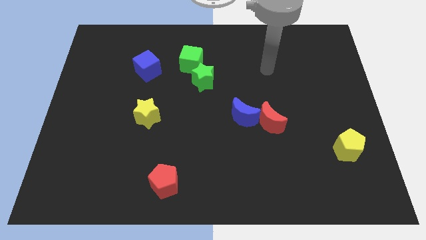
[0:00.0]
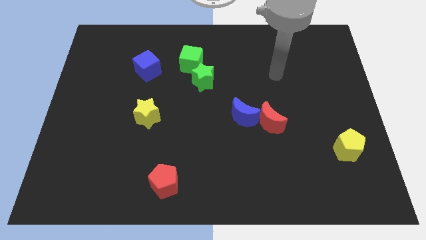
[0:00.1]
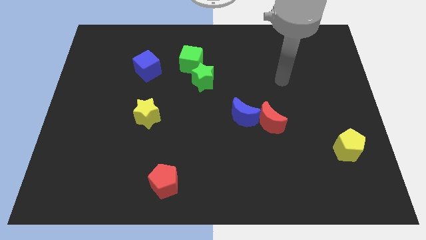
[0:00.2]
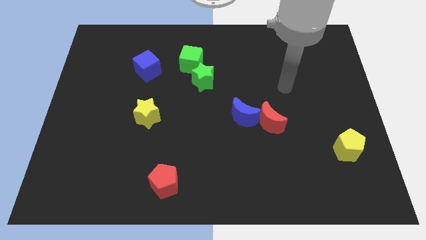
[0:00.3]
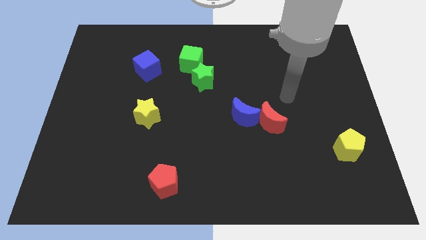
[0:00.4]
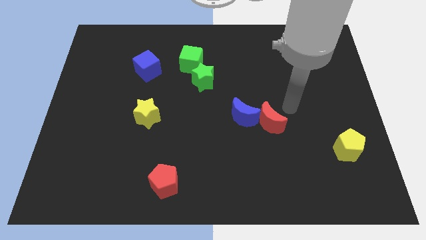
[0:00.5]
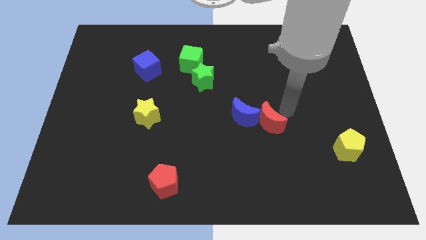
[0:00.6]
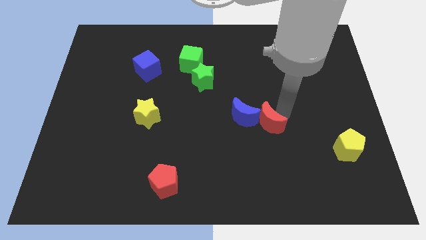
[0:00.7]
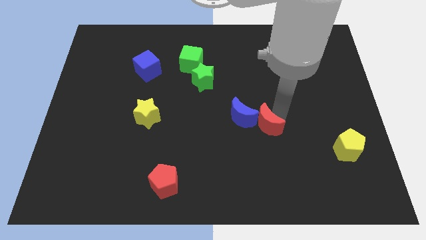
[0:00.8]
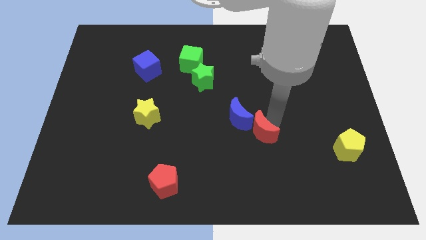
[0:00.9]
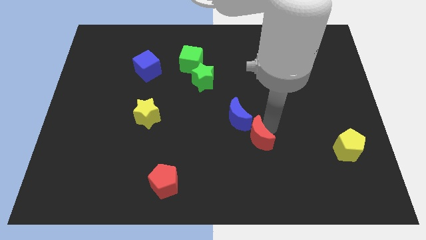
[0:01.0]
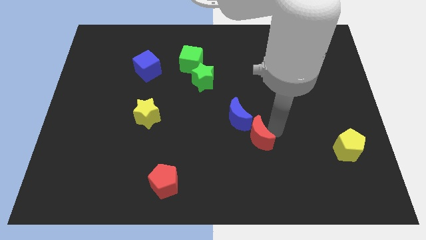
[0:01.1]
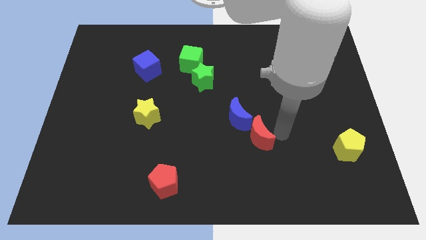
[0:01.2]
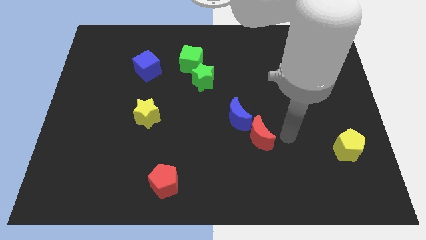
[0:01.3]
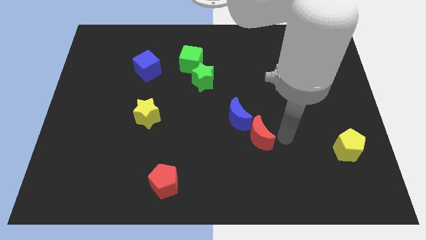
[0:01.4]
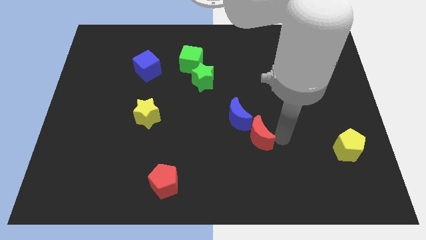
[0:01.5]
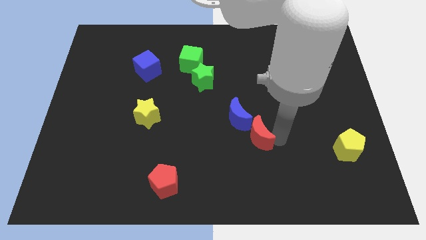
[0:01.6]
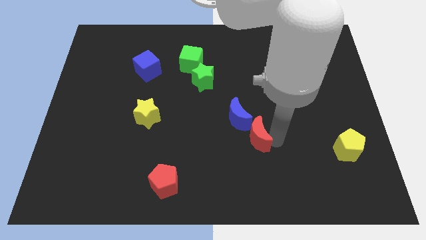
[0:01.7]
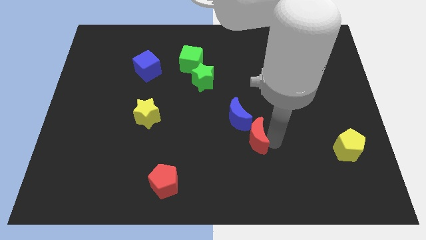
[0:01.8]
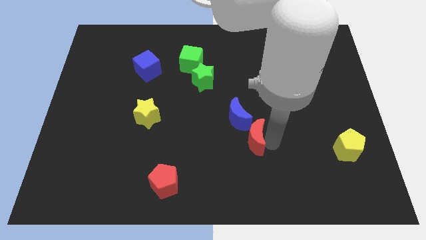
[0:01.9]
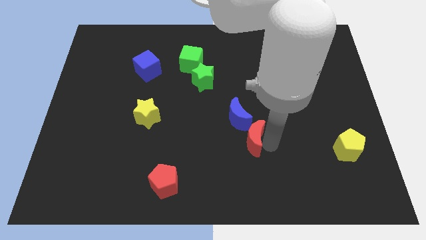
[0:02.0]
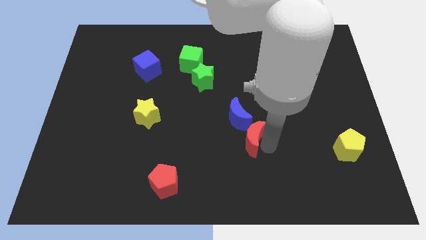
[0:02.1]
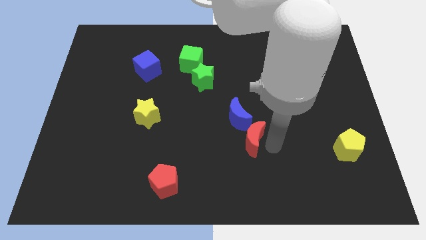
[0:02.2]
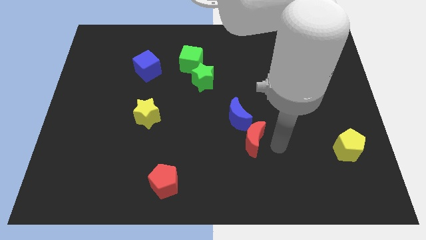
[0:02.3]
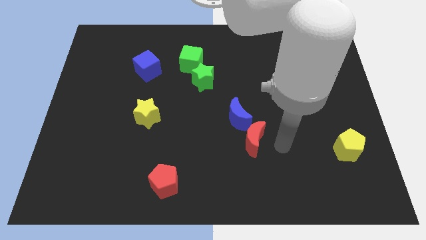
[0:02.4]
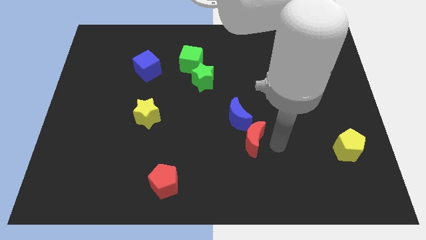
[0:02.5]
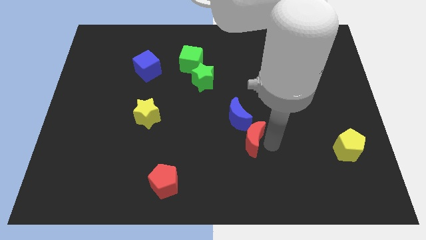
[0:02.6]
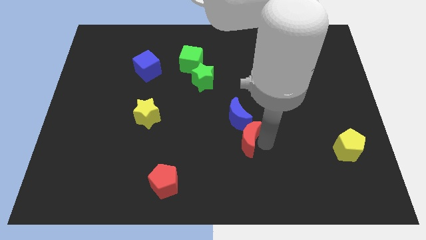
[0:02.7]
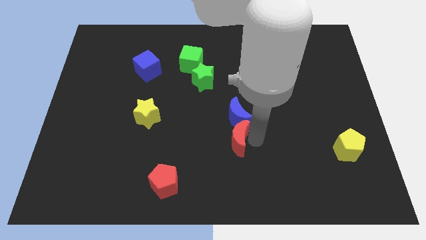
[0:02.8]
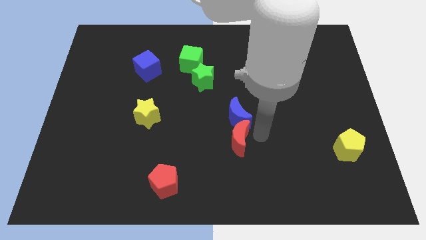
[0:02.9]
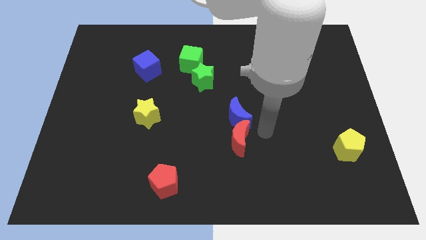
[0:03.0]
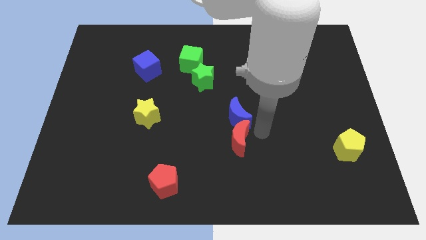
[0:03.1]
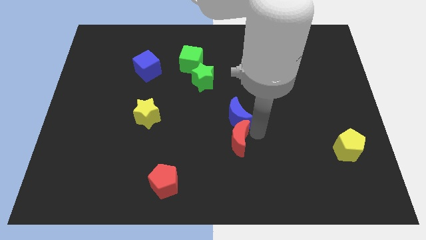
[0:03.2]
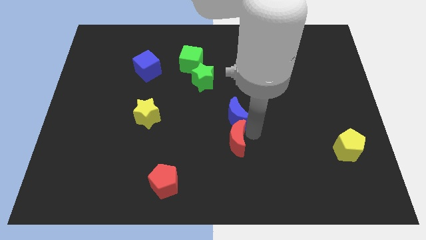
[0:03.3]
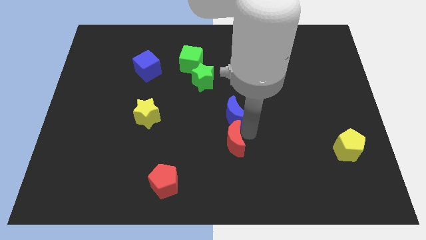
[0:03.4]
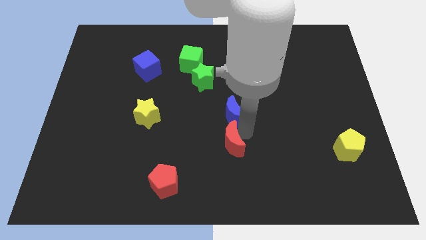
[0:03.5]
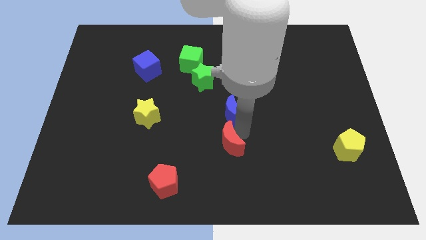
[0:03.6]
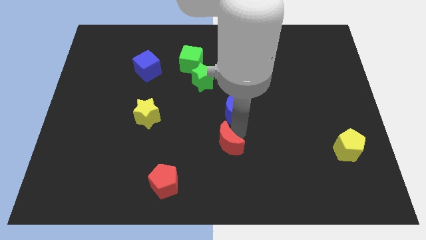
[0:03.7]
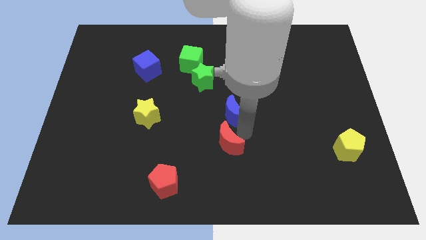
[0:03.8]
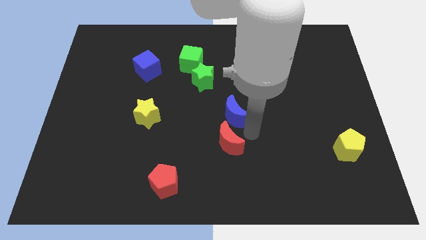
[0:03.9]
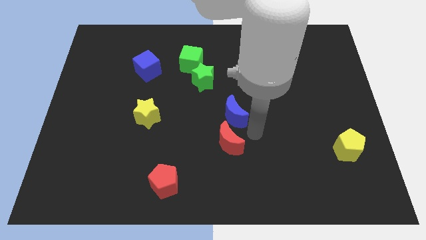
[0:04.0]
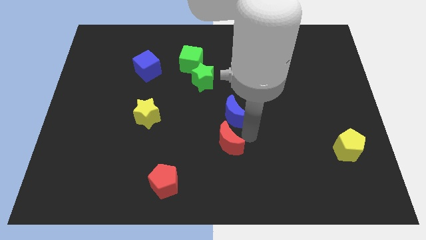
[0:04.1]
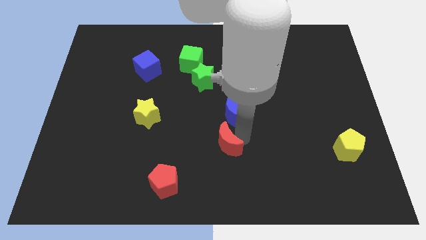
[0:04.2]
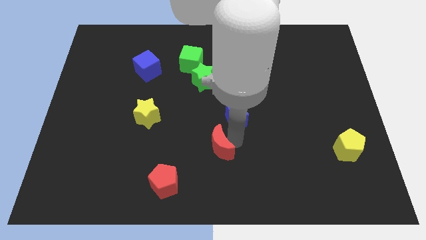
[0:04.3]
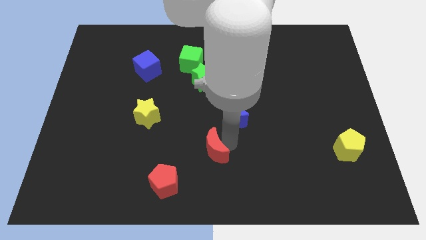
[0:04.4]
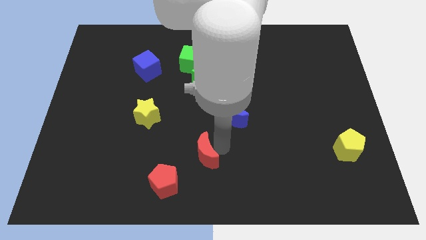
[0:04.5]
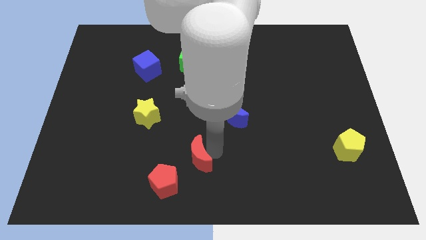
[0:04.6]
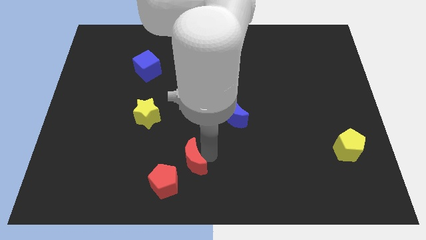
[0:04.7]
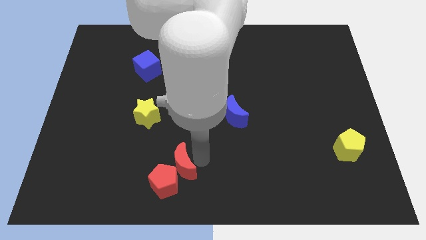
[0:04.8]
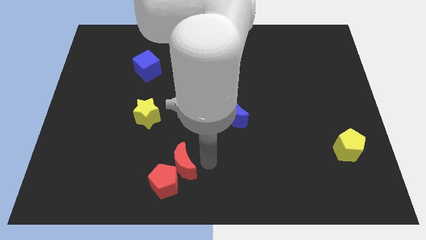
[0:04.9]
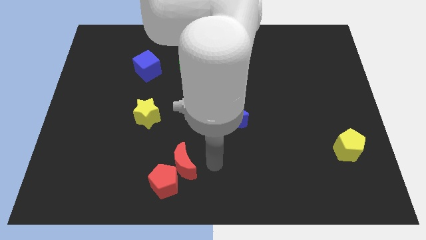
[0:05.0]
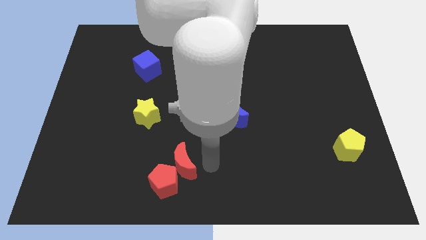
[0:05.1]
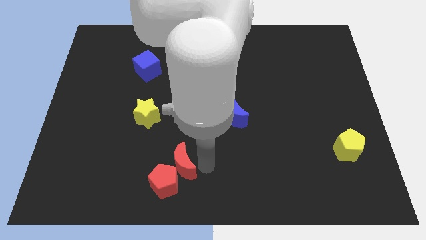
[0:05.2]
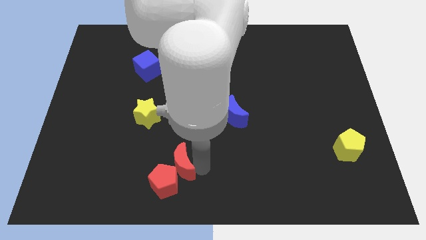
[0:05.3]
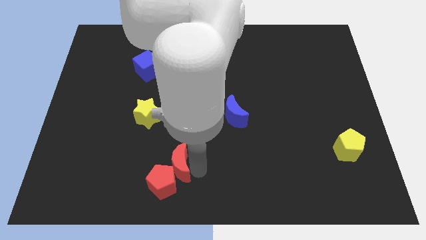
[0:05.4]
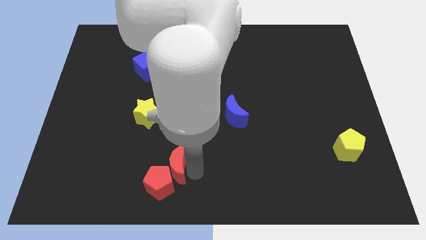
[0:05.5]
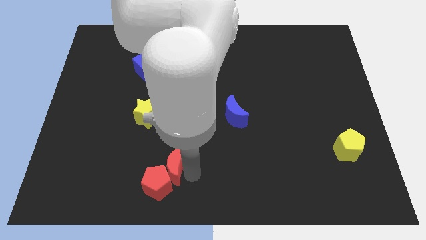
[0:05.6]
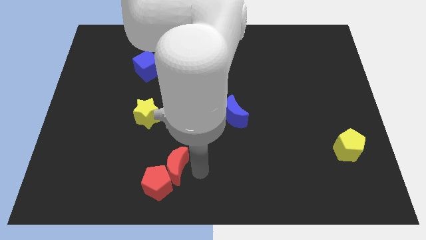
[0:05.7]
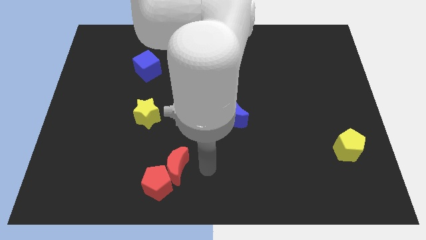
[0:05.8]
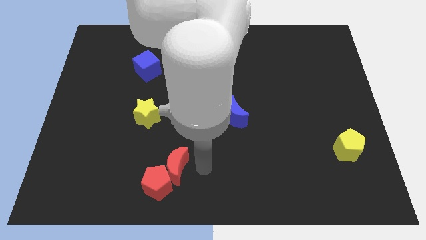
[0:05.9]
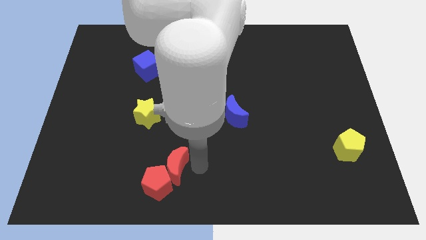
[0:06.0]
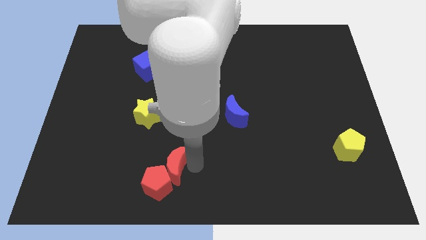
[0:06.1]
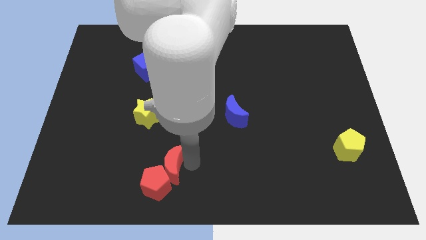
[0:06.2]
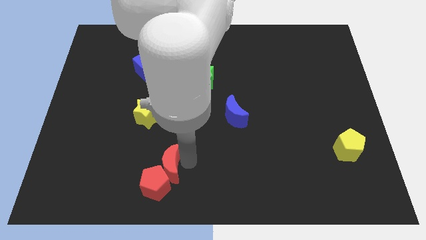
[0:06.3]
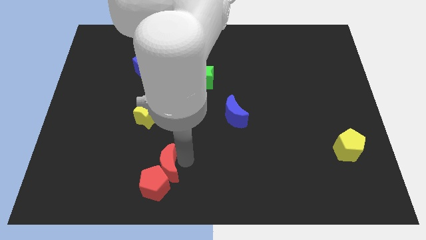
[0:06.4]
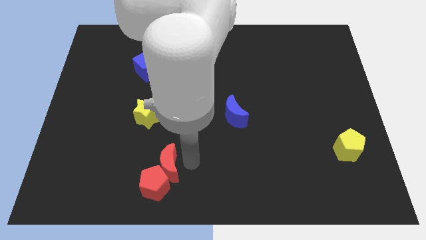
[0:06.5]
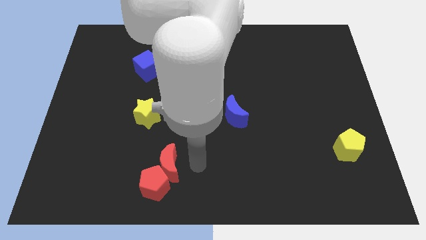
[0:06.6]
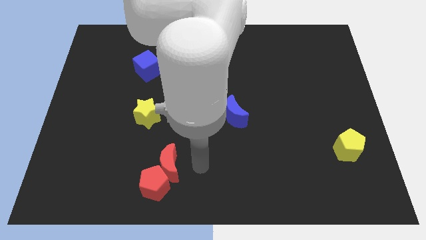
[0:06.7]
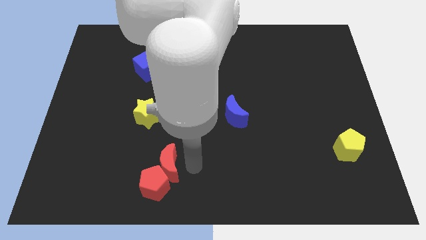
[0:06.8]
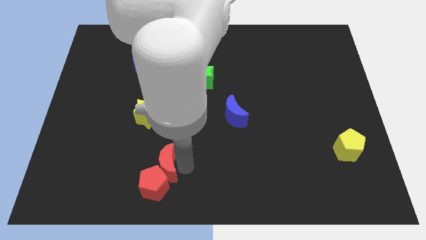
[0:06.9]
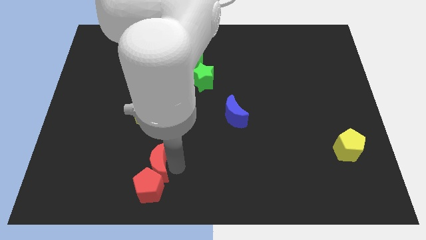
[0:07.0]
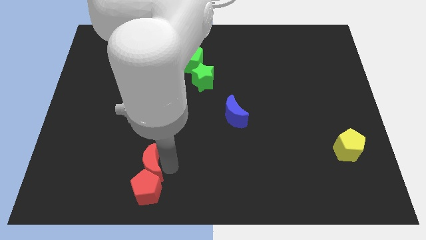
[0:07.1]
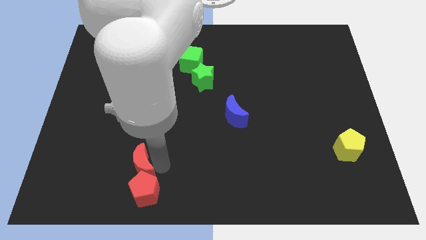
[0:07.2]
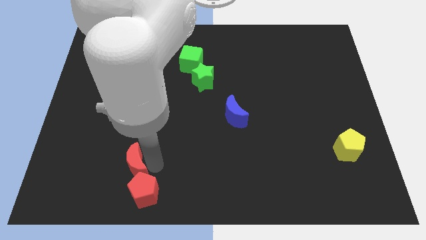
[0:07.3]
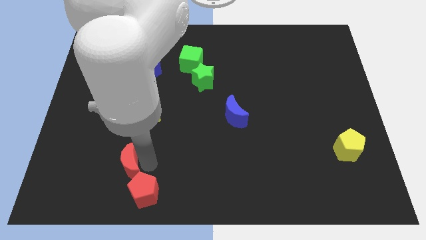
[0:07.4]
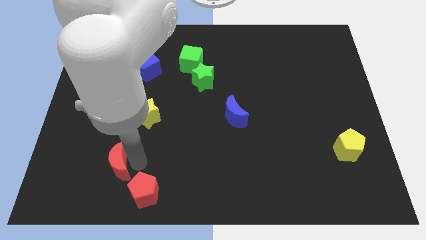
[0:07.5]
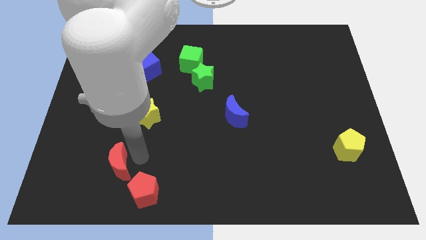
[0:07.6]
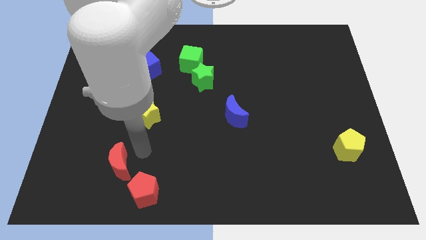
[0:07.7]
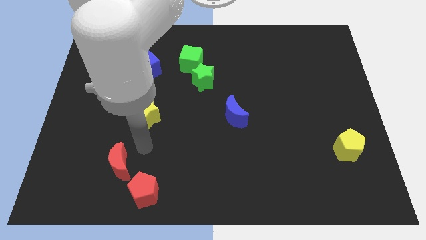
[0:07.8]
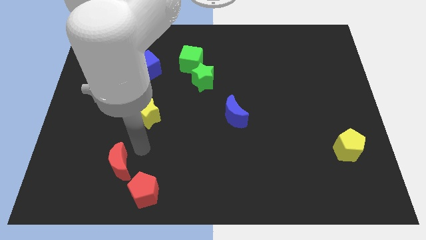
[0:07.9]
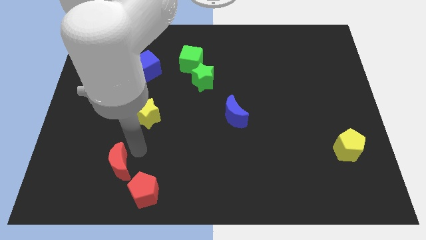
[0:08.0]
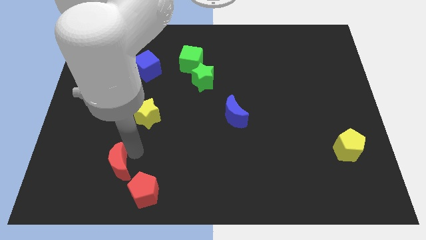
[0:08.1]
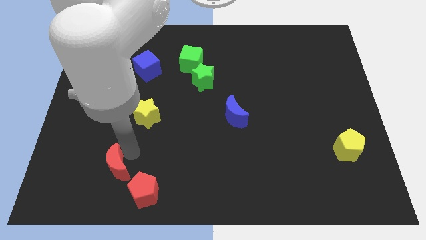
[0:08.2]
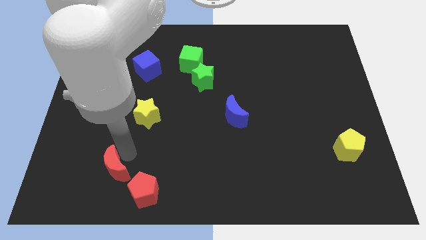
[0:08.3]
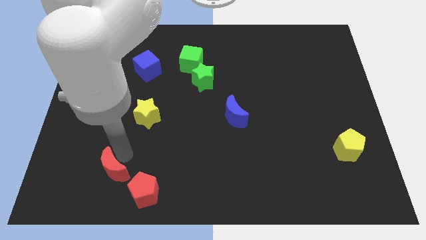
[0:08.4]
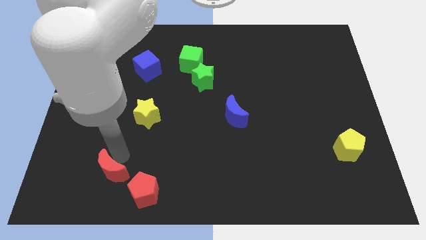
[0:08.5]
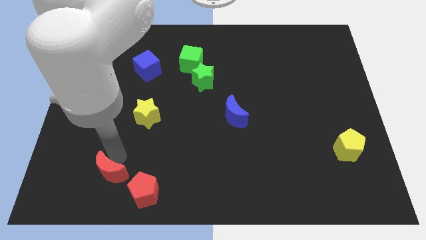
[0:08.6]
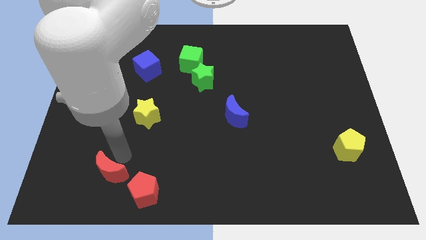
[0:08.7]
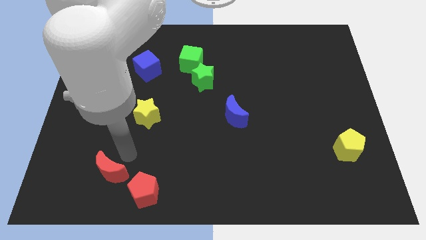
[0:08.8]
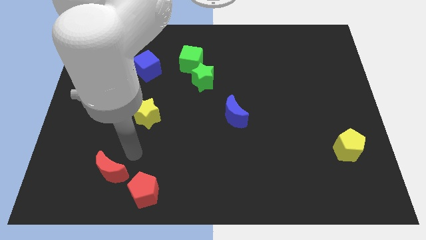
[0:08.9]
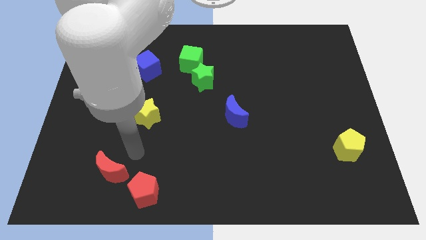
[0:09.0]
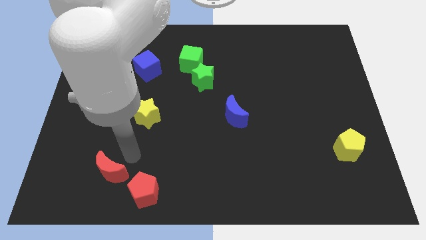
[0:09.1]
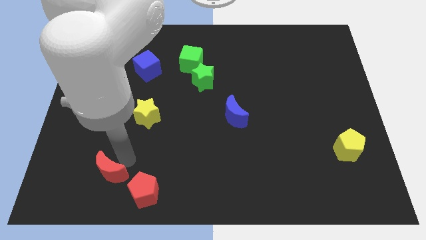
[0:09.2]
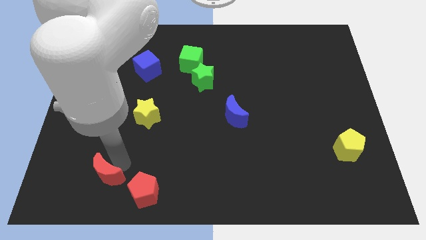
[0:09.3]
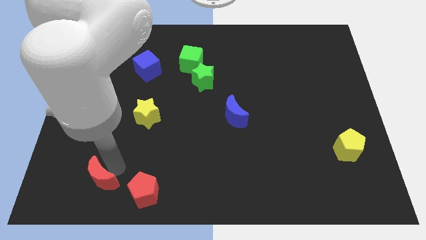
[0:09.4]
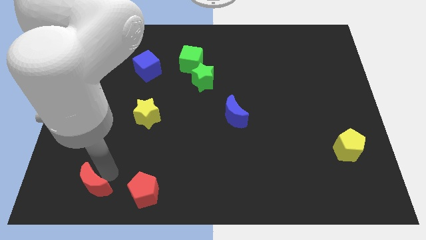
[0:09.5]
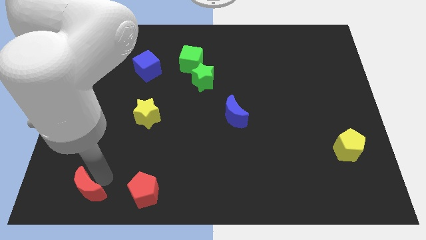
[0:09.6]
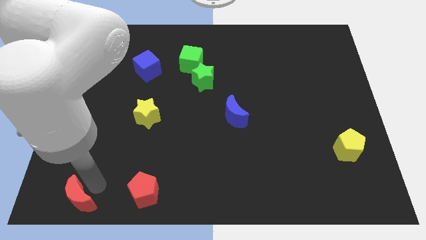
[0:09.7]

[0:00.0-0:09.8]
slide the red moon to the bottom left
